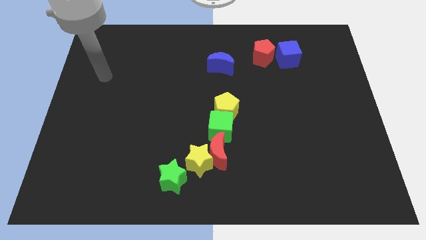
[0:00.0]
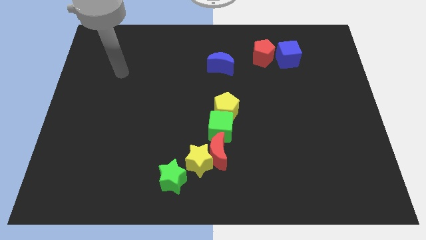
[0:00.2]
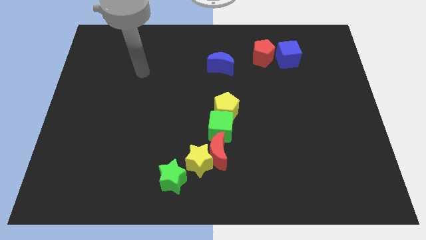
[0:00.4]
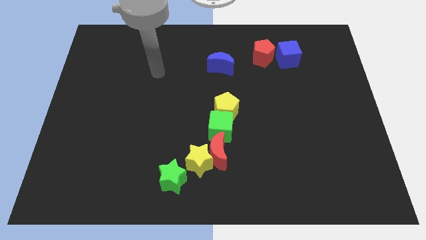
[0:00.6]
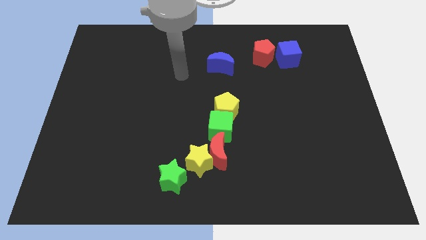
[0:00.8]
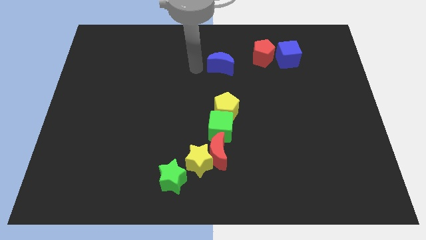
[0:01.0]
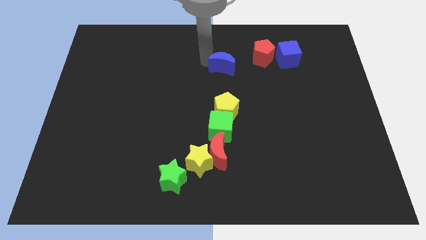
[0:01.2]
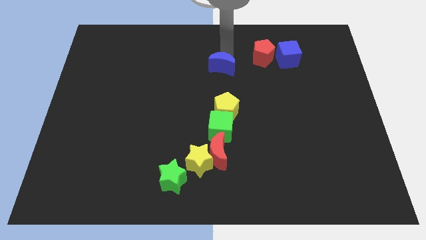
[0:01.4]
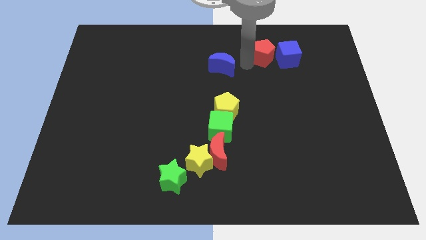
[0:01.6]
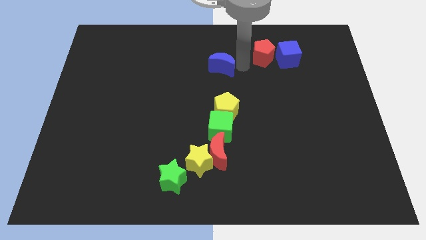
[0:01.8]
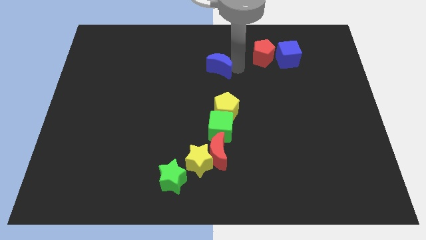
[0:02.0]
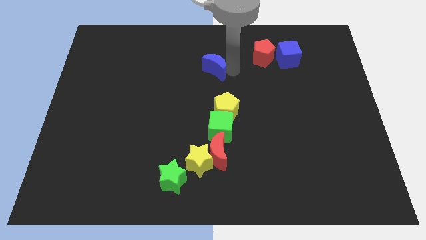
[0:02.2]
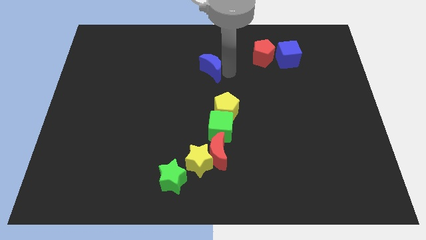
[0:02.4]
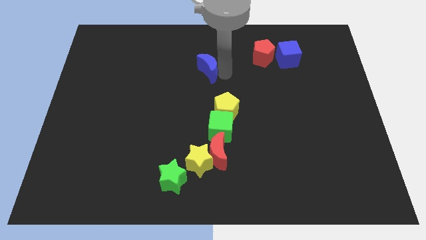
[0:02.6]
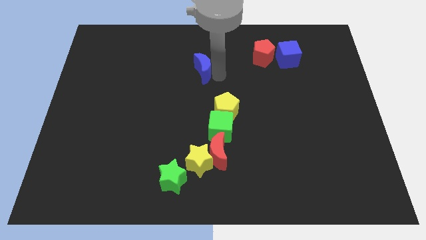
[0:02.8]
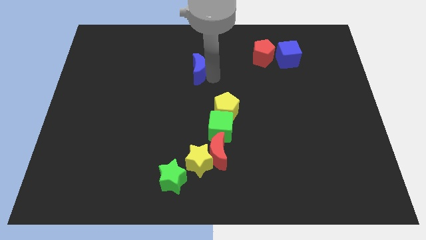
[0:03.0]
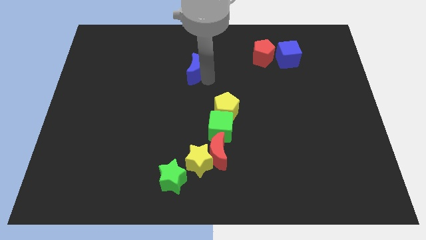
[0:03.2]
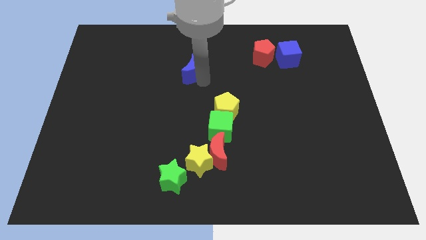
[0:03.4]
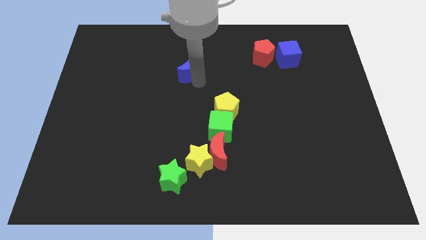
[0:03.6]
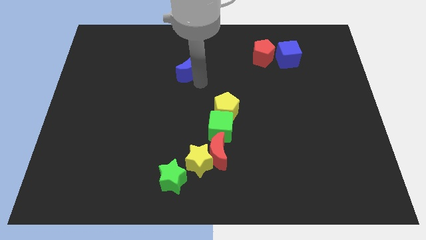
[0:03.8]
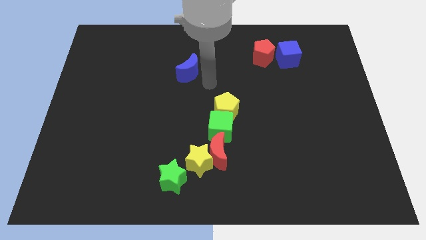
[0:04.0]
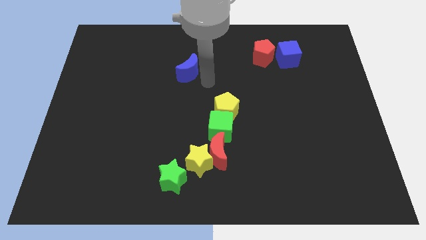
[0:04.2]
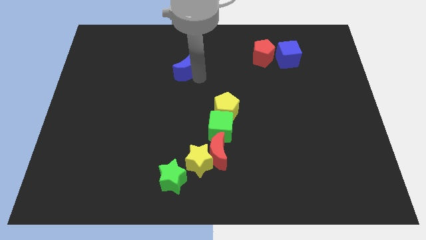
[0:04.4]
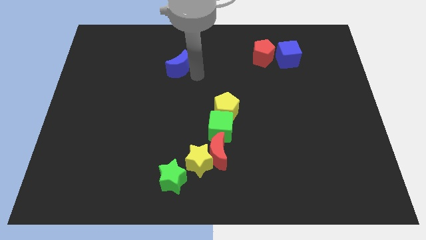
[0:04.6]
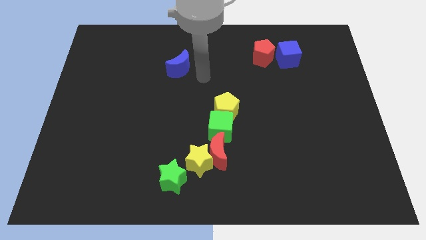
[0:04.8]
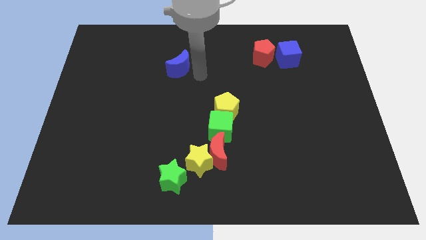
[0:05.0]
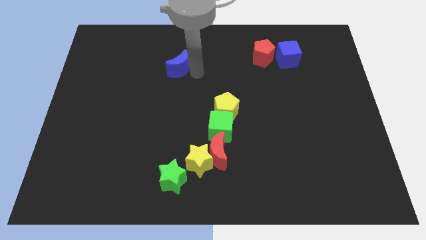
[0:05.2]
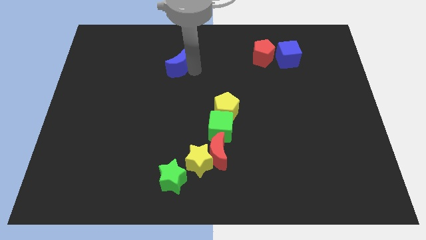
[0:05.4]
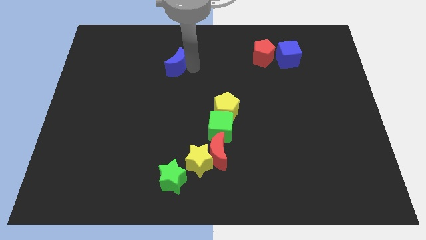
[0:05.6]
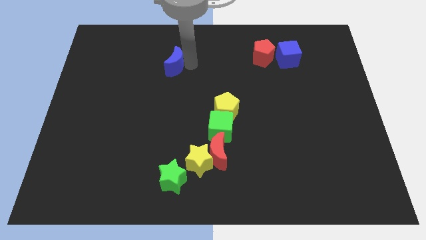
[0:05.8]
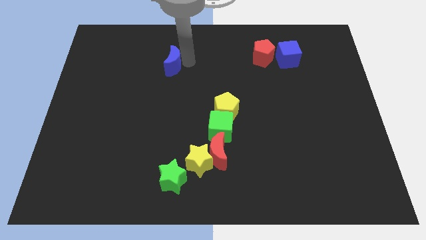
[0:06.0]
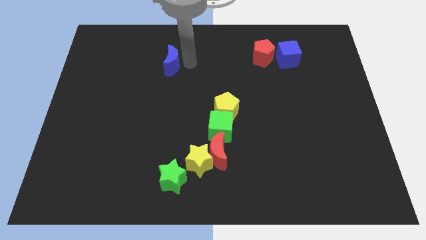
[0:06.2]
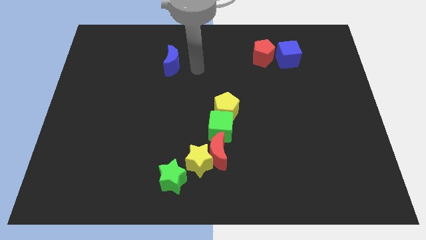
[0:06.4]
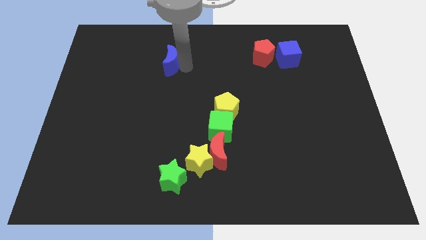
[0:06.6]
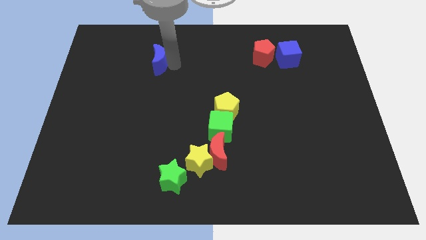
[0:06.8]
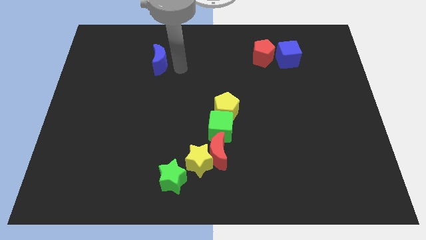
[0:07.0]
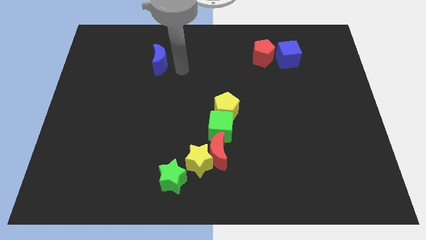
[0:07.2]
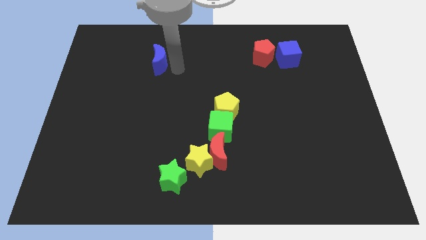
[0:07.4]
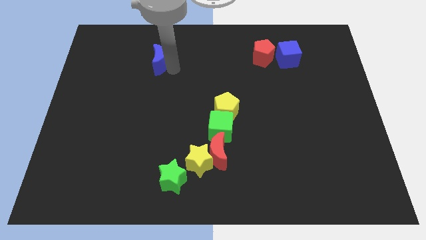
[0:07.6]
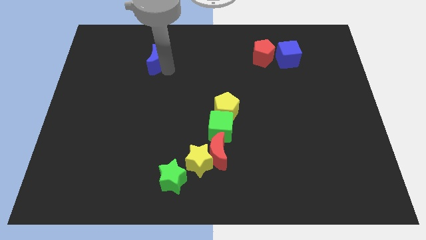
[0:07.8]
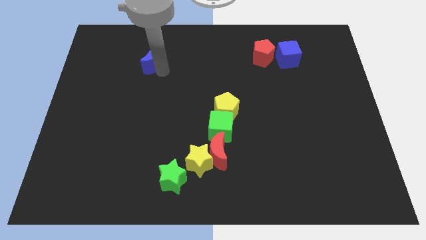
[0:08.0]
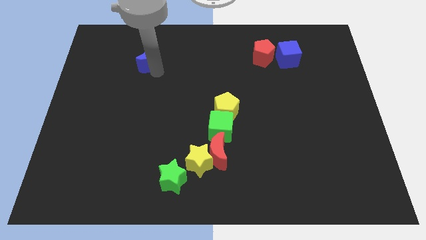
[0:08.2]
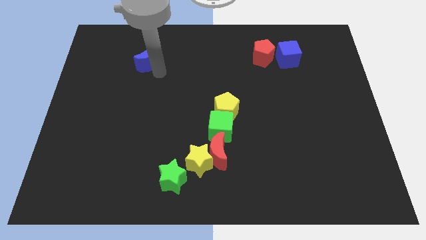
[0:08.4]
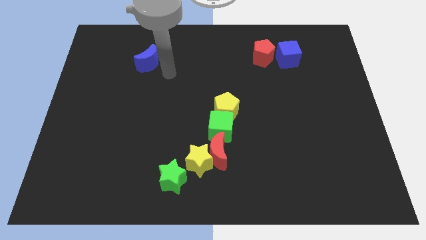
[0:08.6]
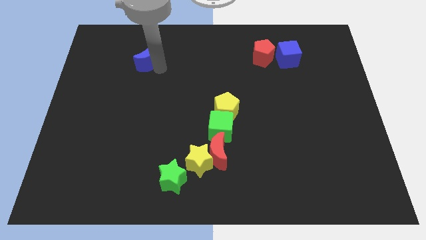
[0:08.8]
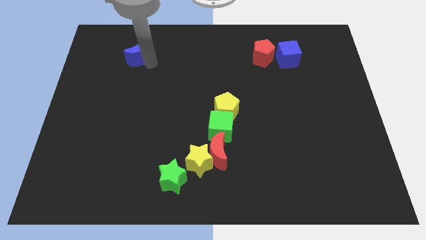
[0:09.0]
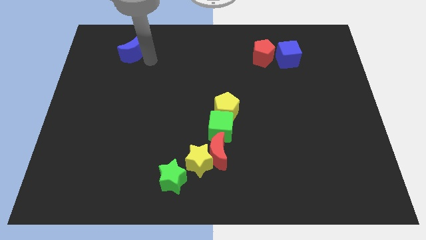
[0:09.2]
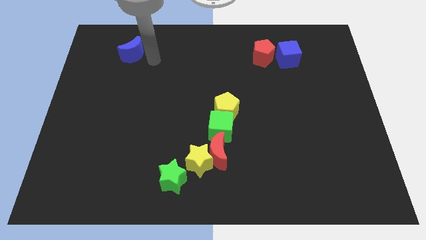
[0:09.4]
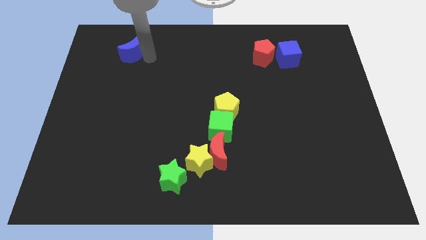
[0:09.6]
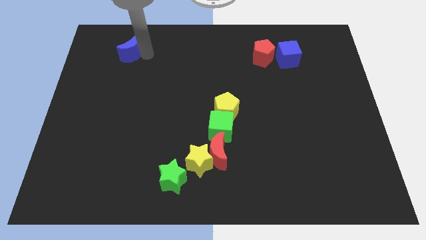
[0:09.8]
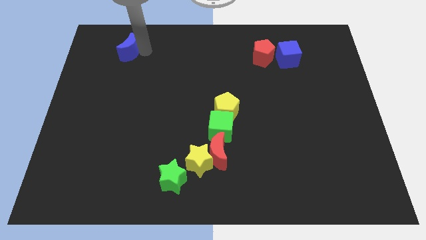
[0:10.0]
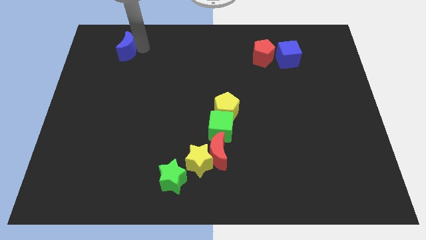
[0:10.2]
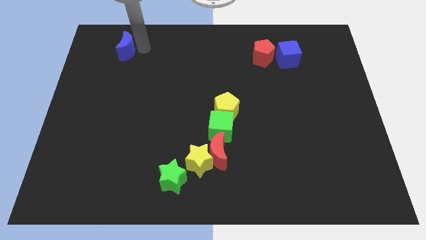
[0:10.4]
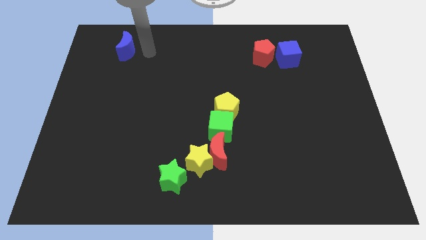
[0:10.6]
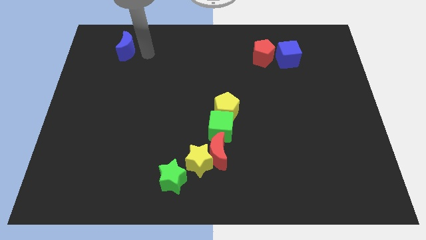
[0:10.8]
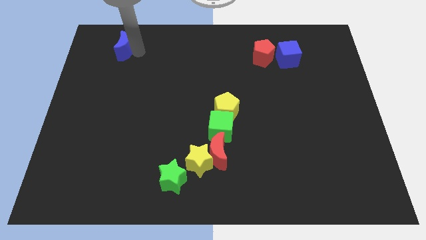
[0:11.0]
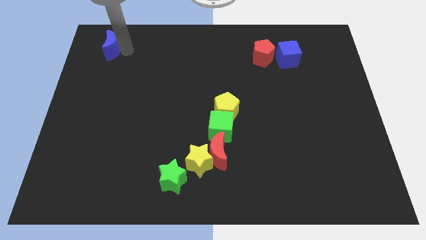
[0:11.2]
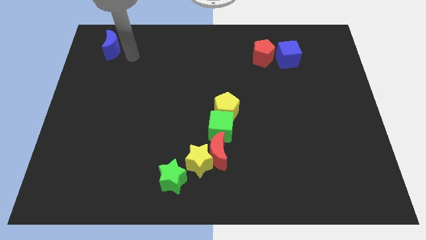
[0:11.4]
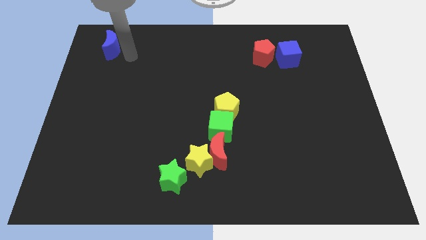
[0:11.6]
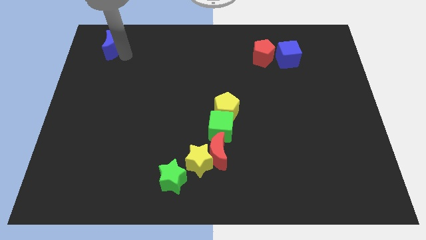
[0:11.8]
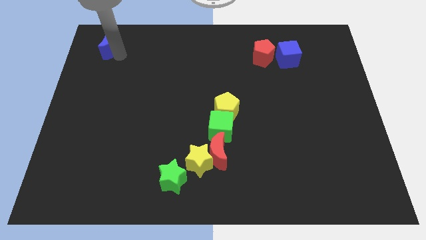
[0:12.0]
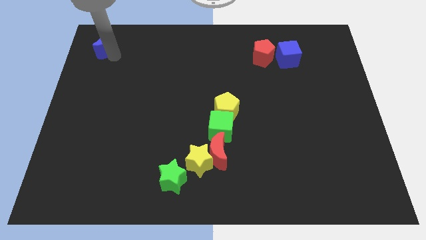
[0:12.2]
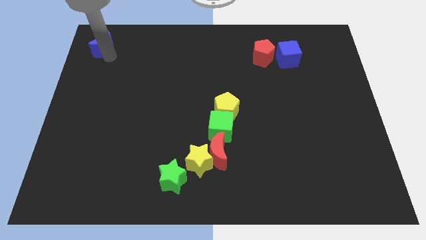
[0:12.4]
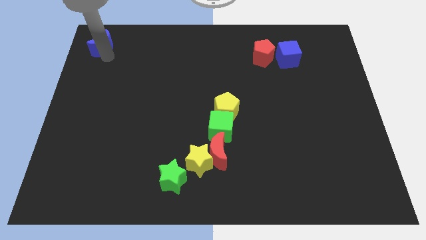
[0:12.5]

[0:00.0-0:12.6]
put the blue moon to the top left of the board

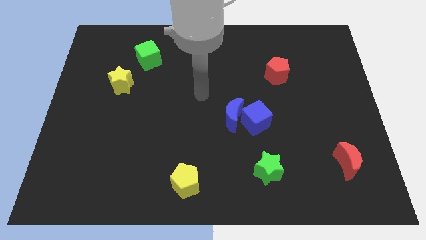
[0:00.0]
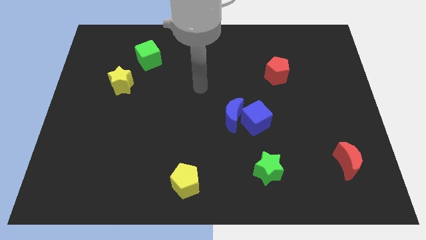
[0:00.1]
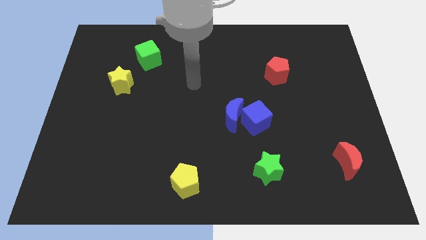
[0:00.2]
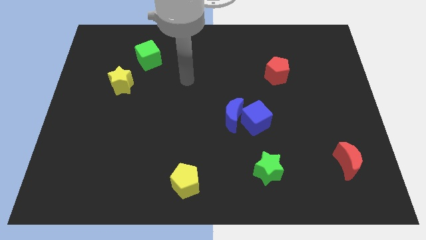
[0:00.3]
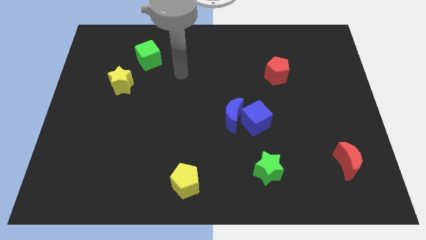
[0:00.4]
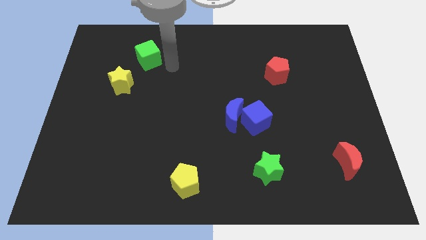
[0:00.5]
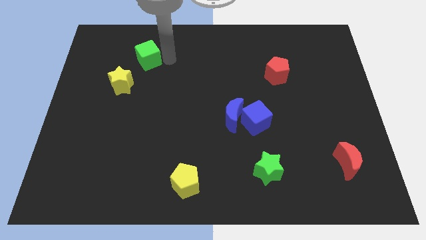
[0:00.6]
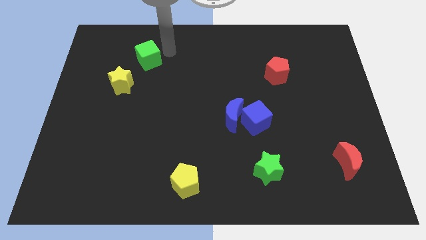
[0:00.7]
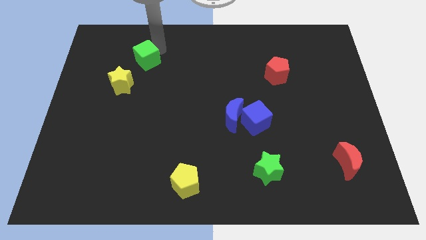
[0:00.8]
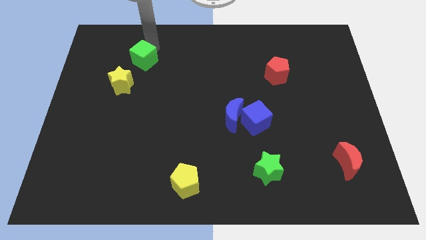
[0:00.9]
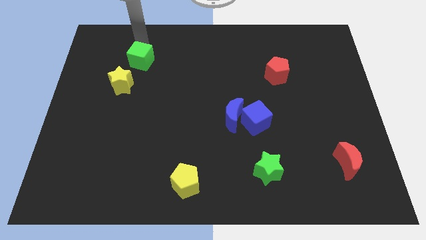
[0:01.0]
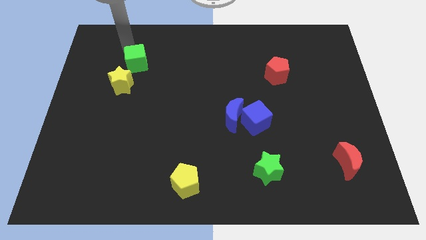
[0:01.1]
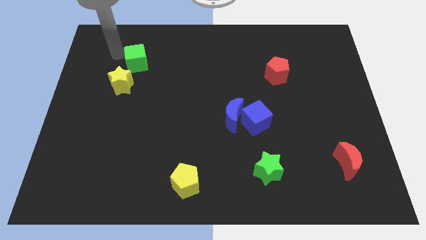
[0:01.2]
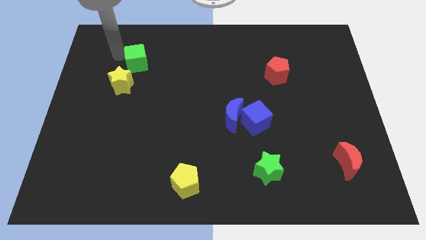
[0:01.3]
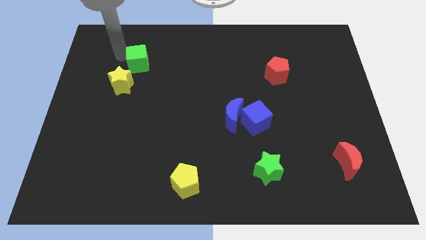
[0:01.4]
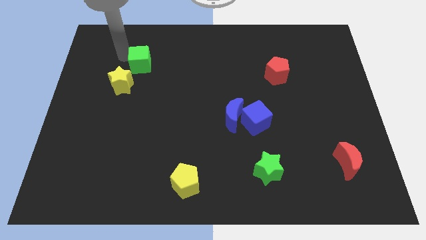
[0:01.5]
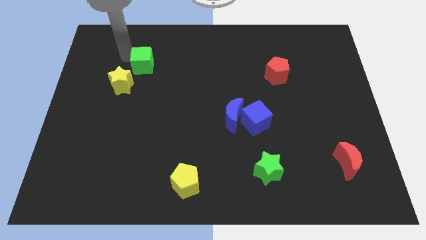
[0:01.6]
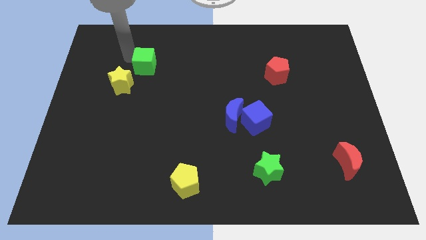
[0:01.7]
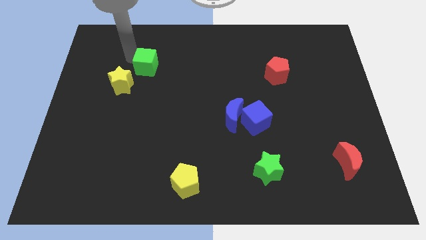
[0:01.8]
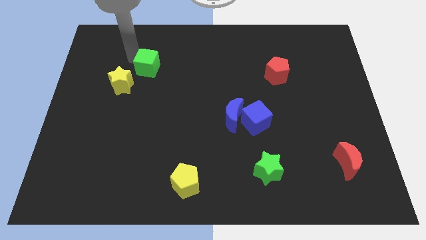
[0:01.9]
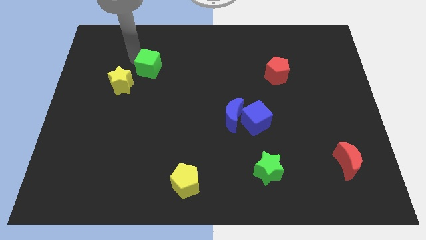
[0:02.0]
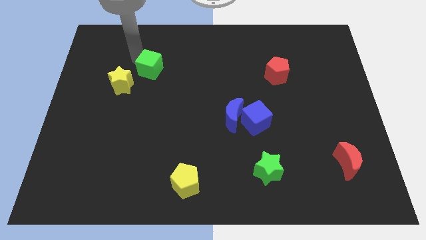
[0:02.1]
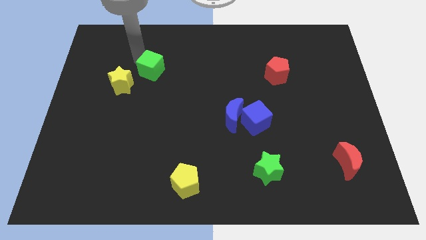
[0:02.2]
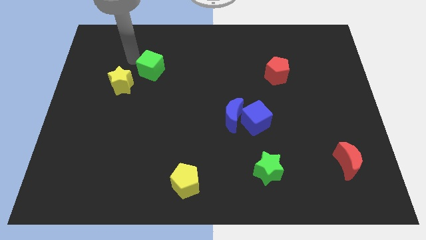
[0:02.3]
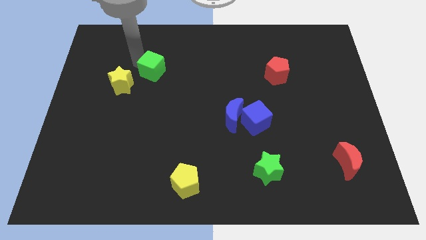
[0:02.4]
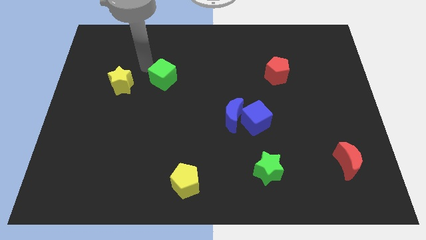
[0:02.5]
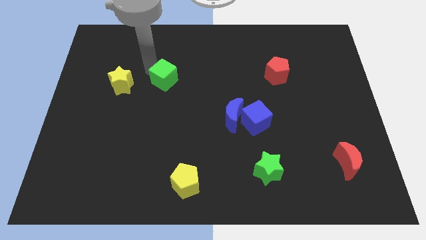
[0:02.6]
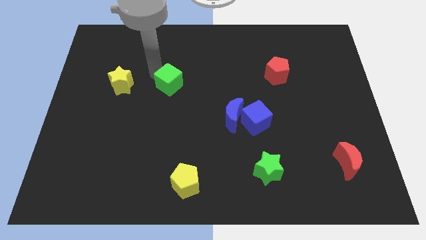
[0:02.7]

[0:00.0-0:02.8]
move the green cube to the middle of the board
